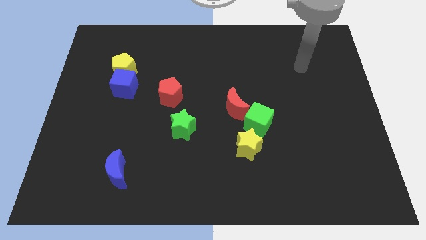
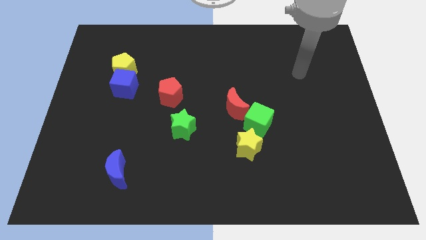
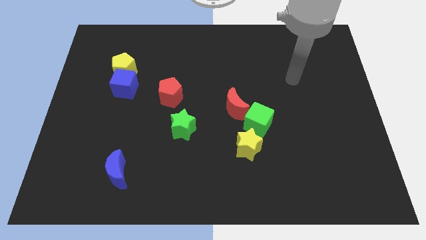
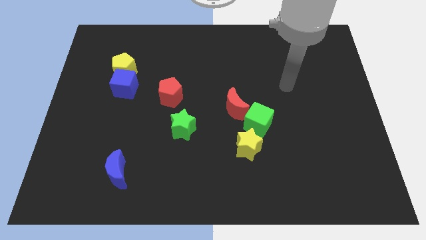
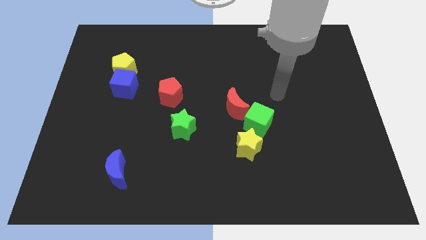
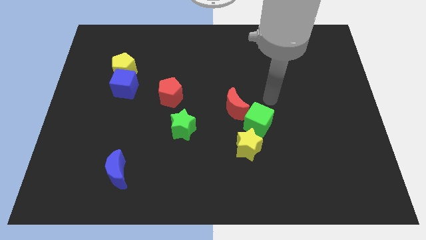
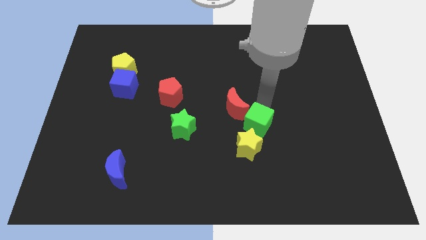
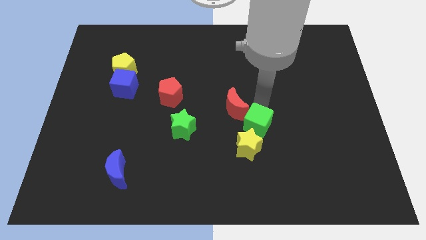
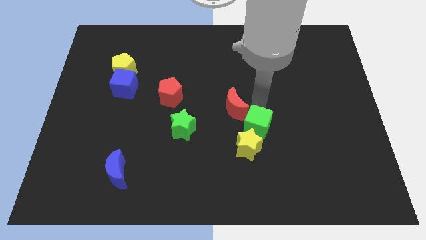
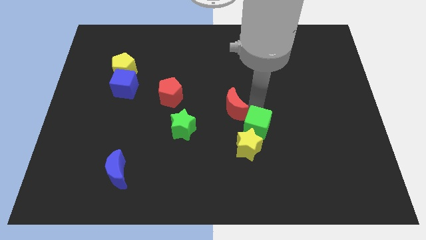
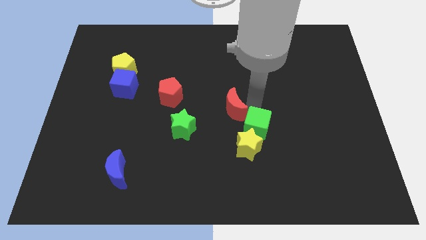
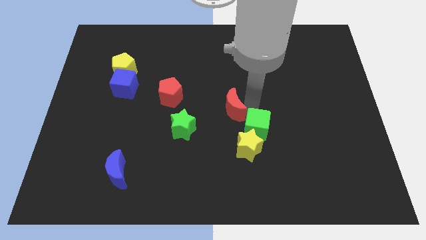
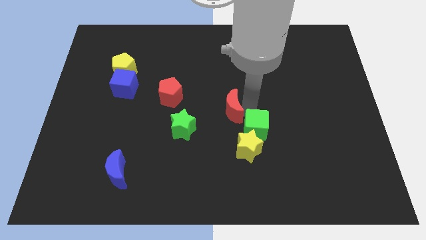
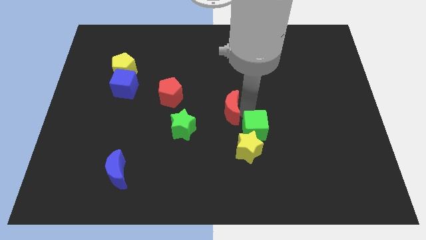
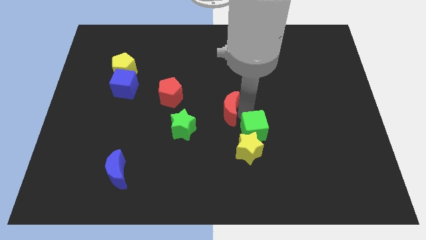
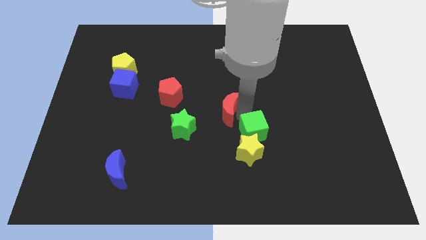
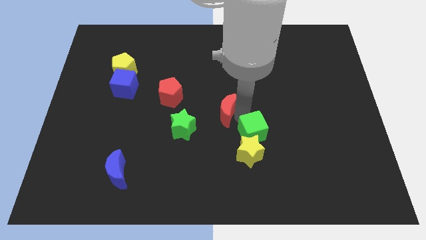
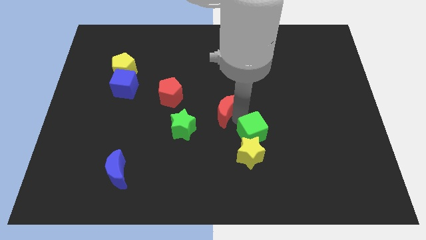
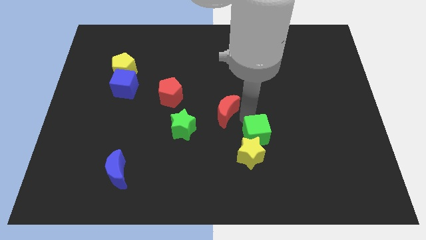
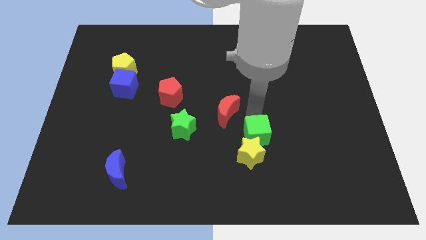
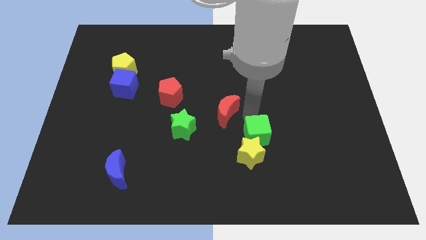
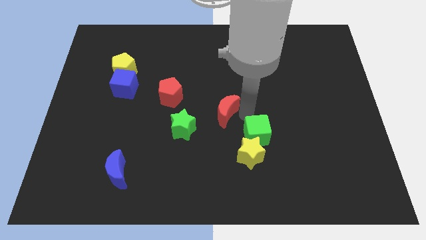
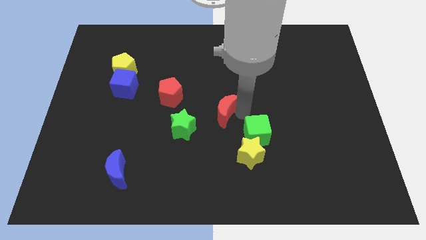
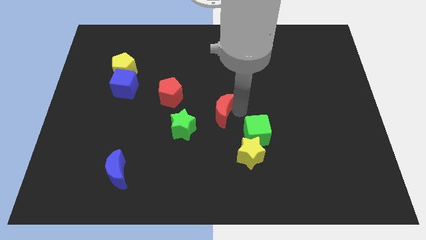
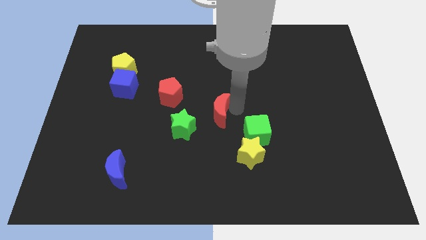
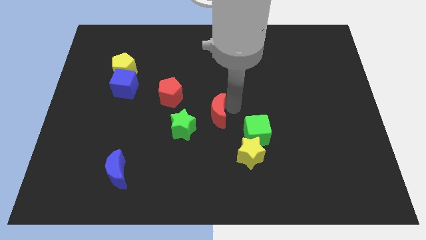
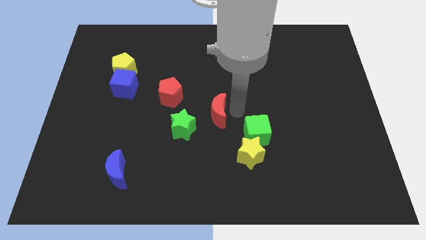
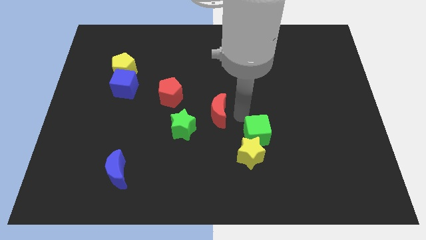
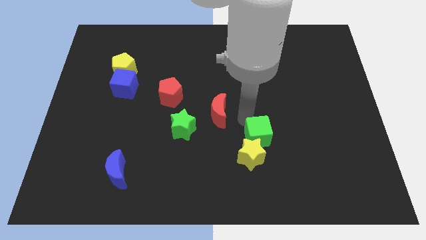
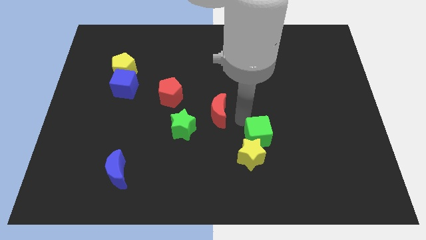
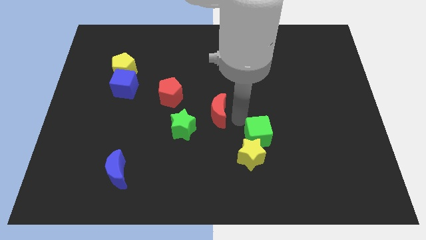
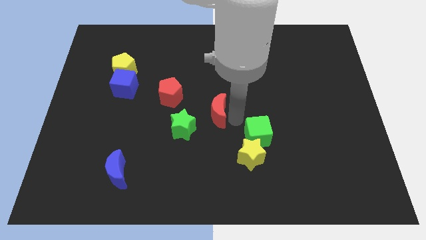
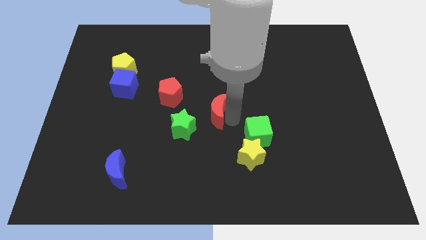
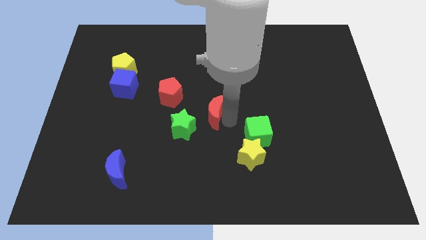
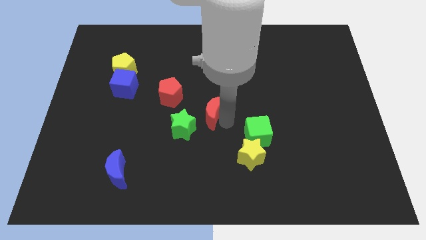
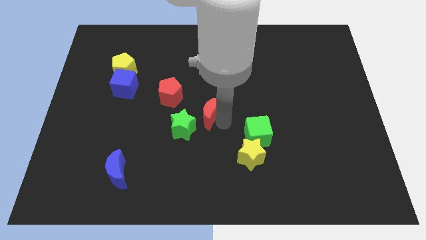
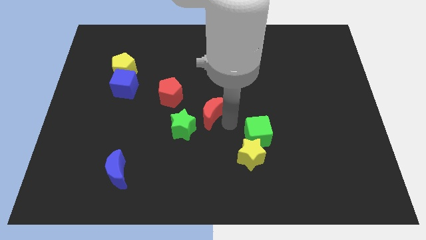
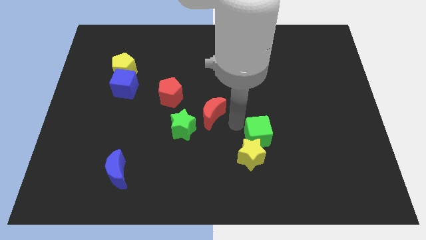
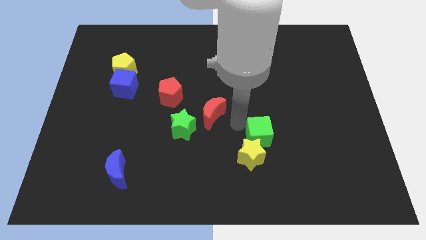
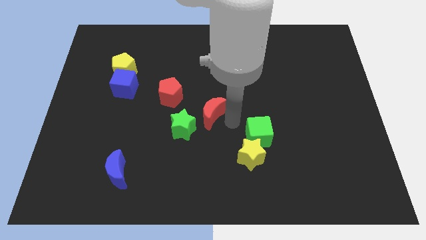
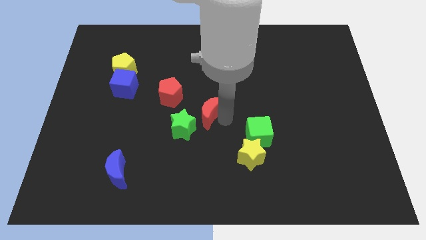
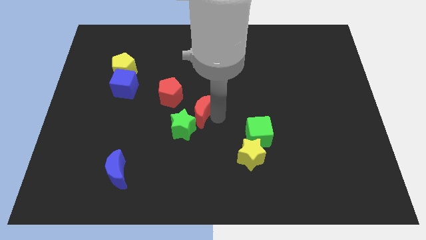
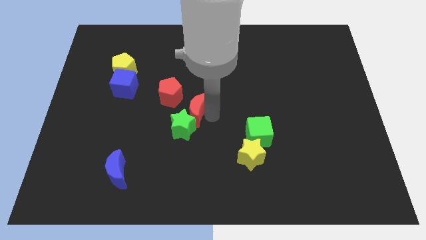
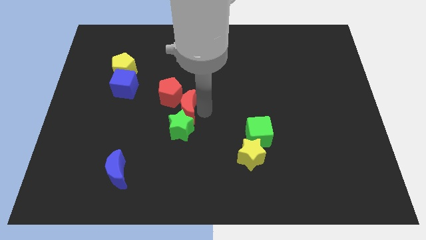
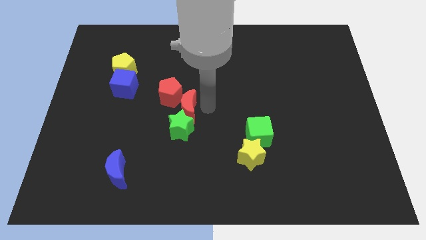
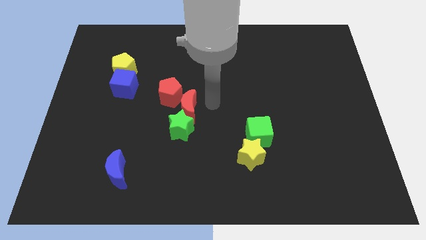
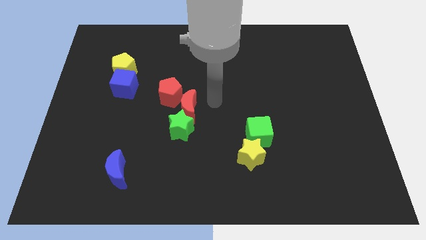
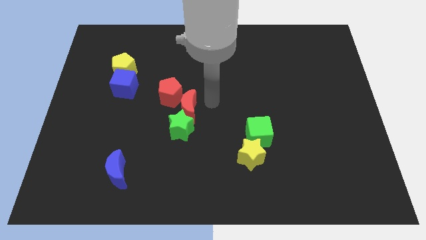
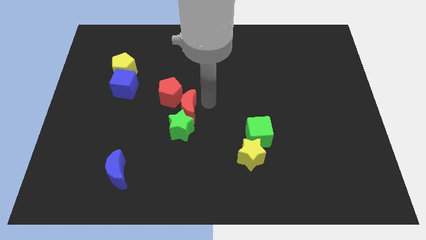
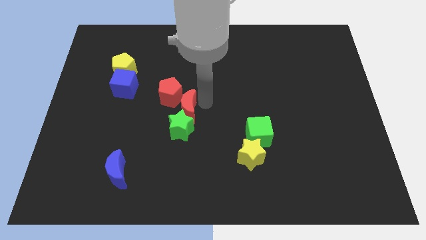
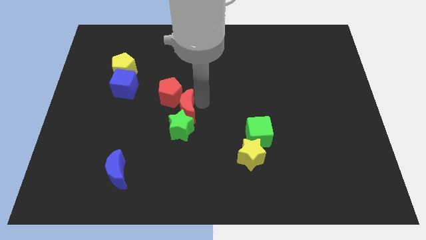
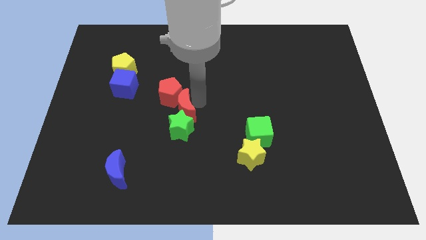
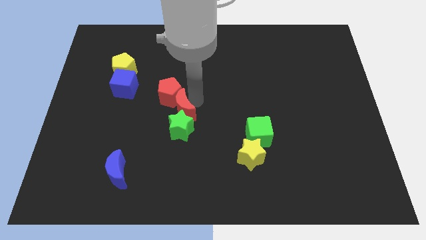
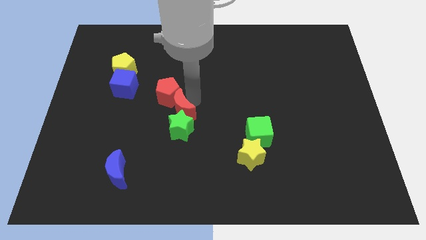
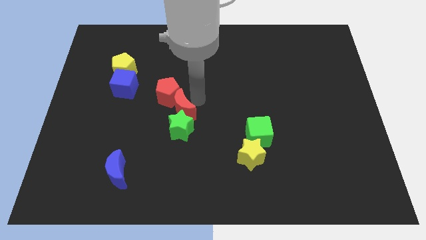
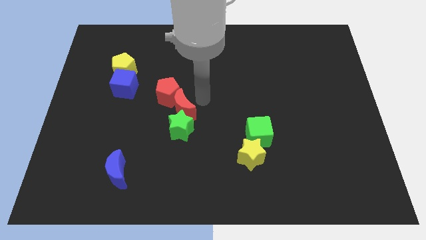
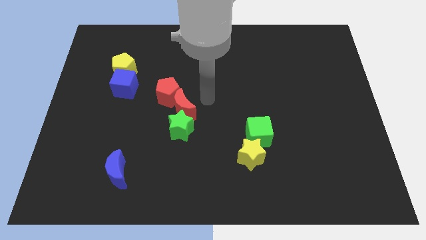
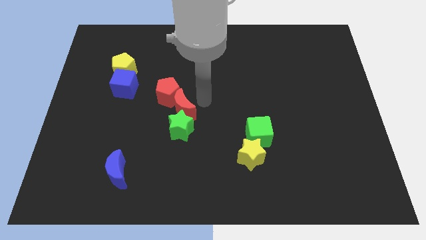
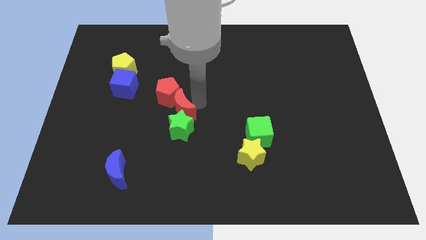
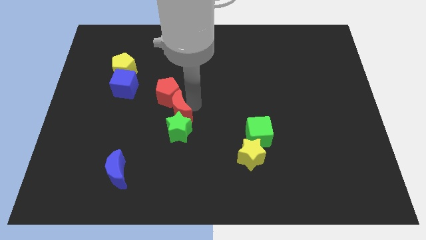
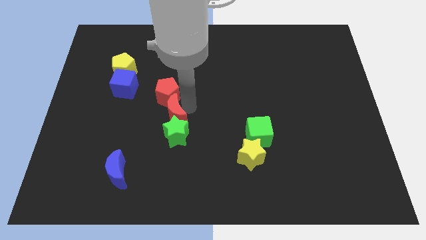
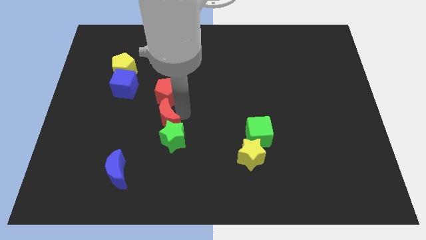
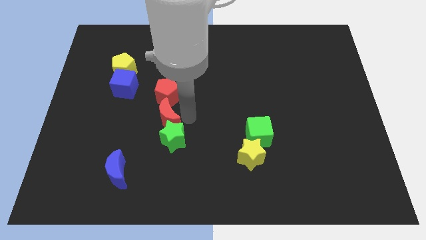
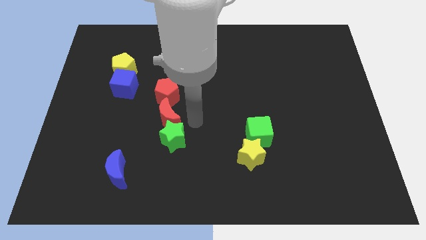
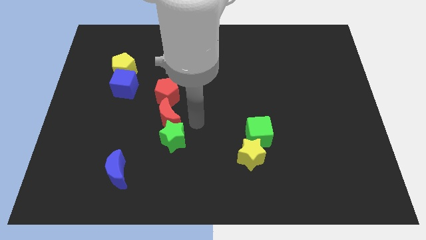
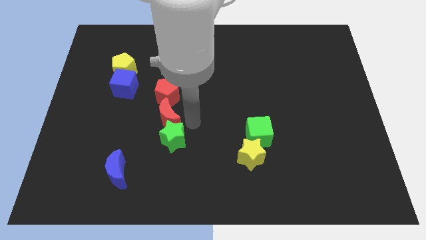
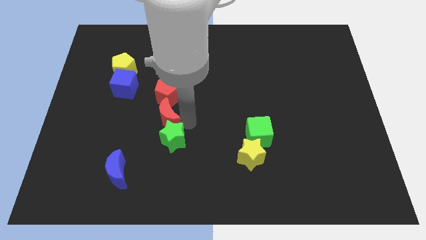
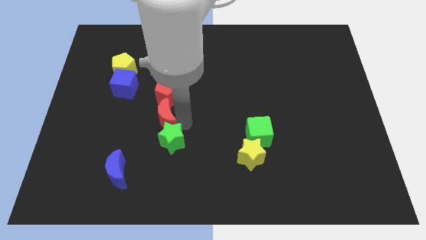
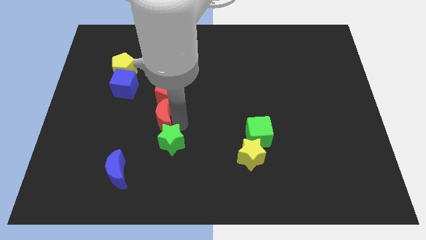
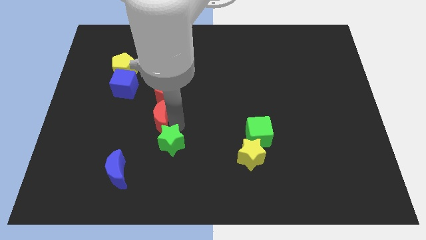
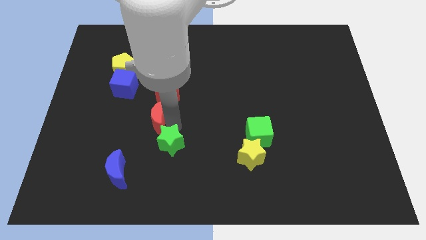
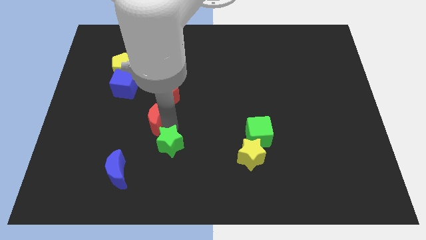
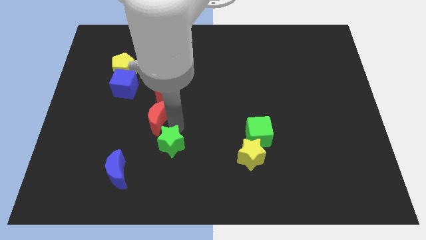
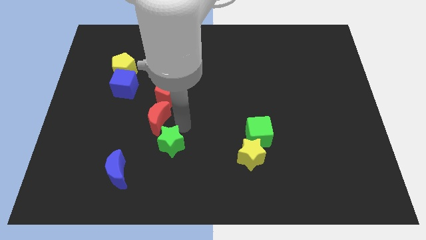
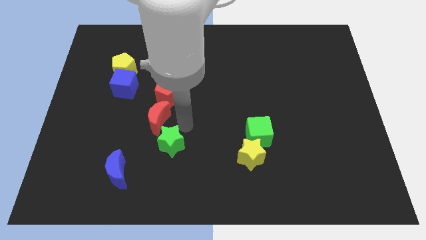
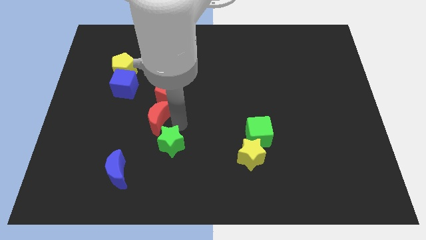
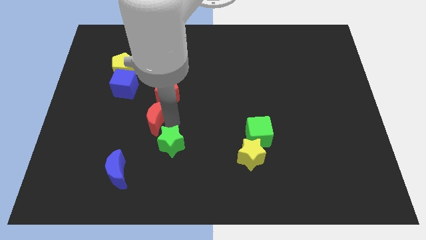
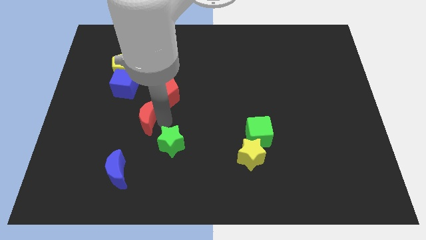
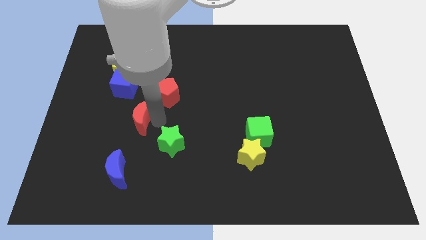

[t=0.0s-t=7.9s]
slide the red moon to the left
